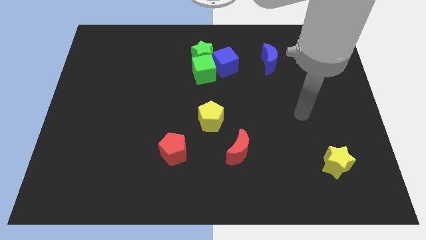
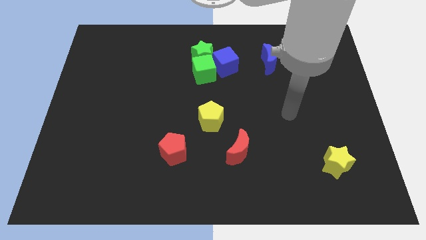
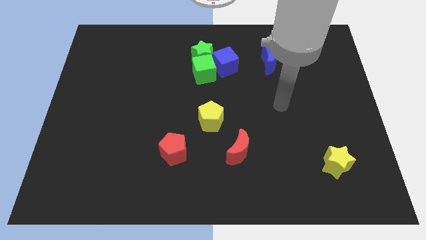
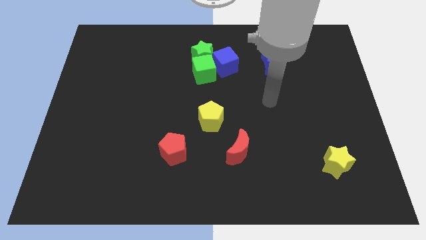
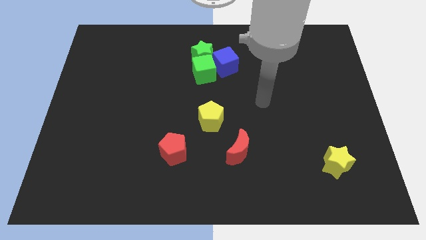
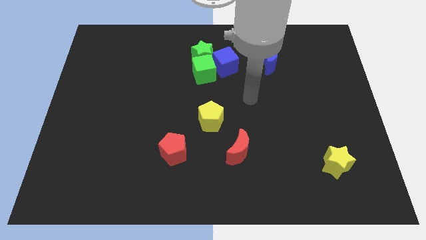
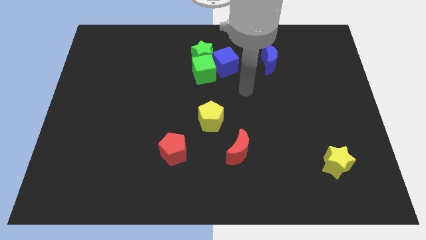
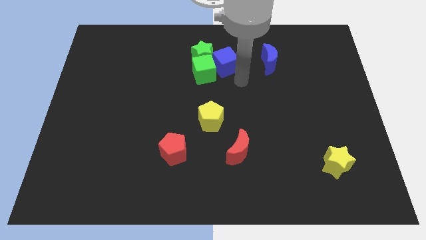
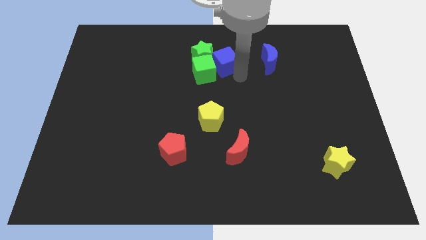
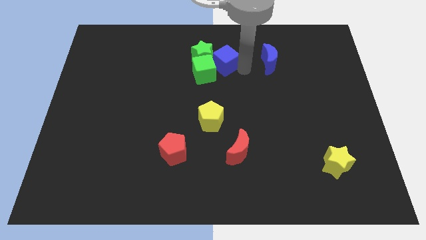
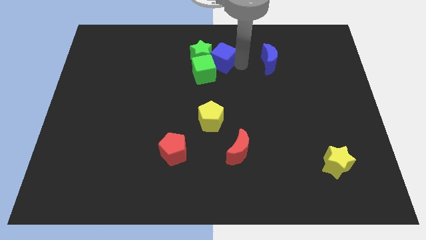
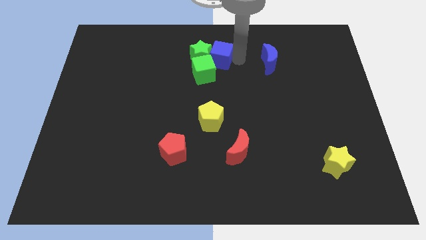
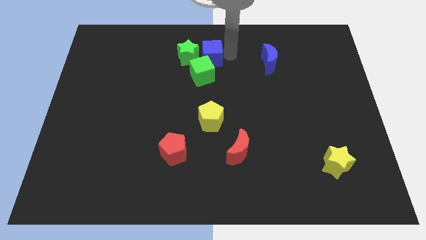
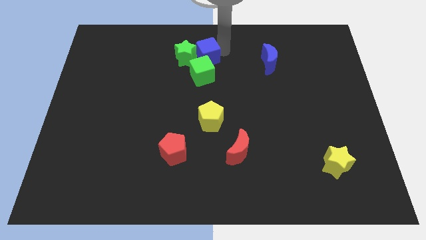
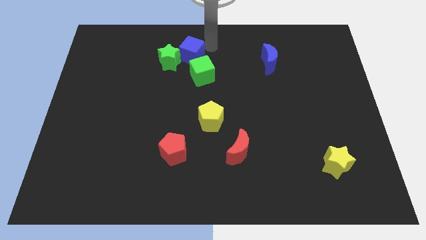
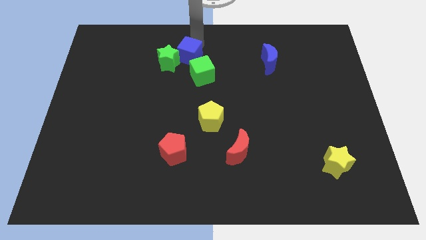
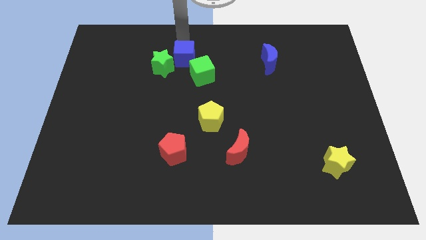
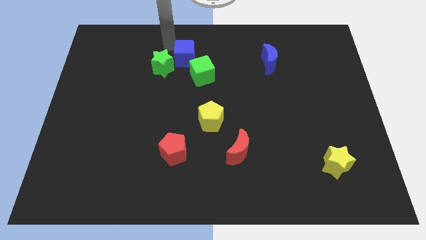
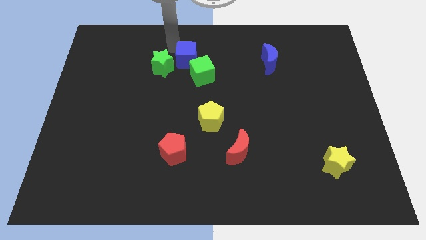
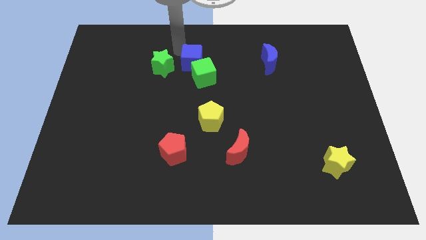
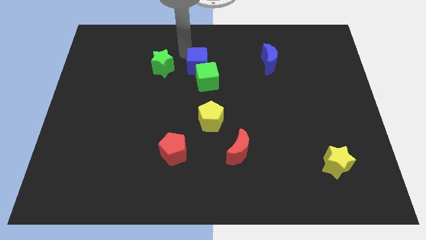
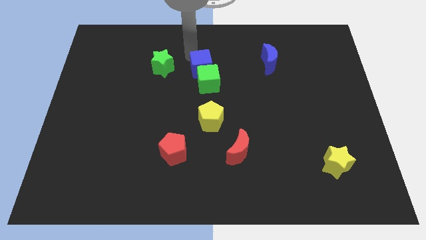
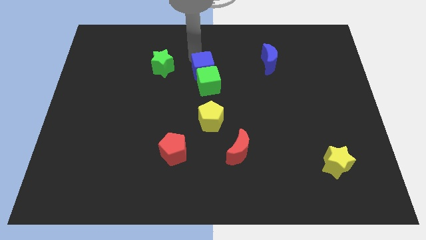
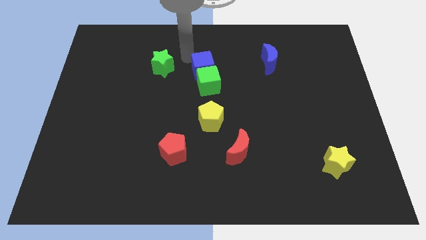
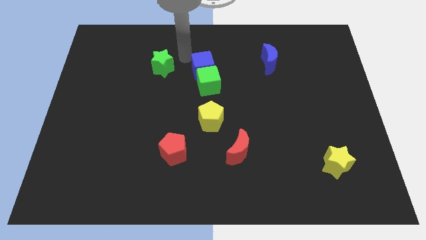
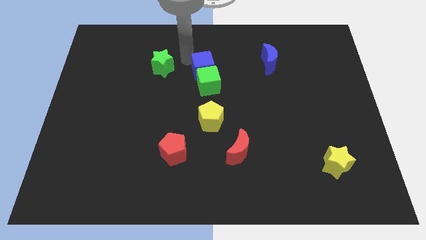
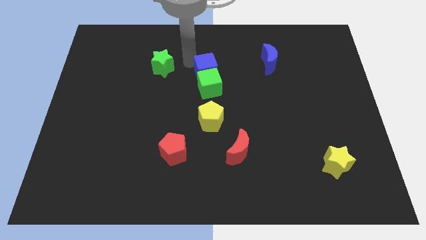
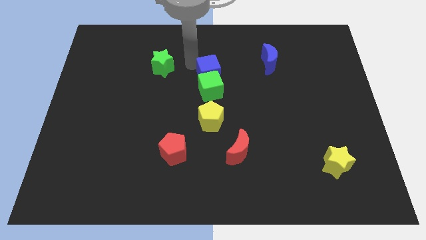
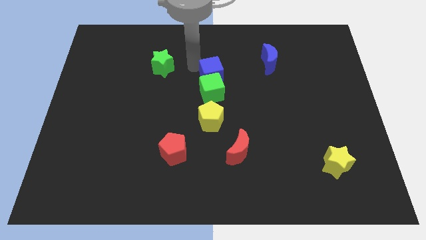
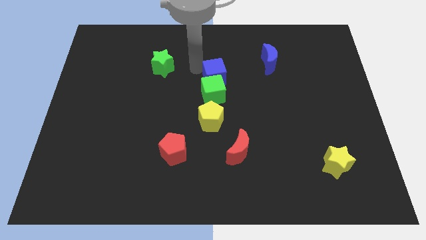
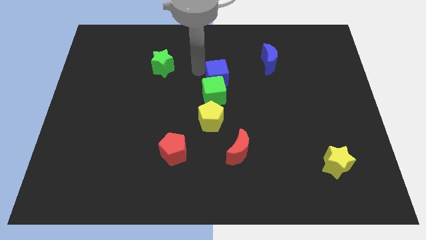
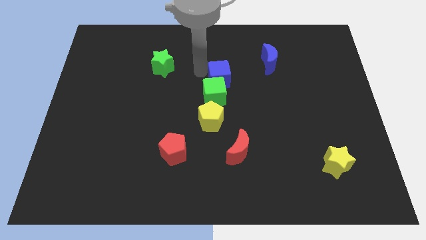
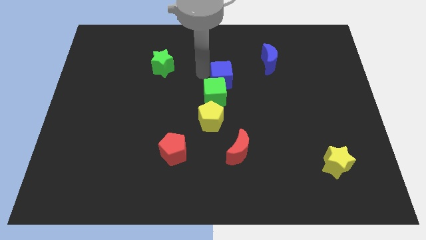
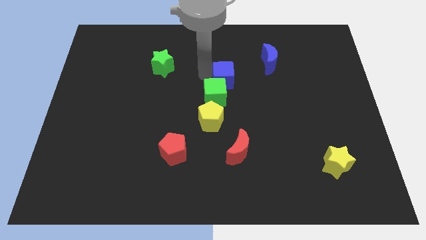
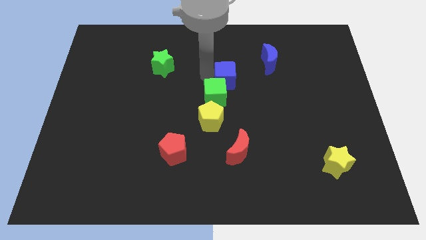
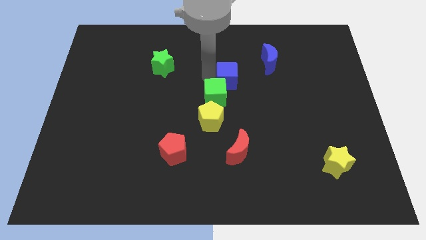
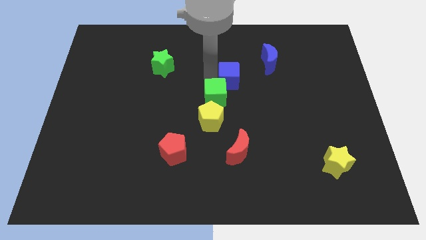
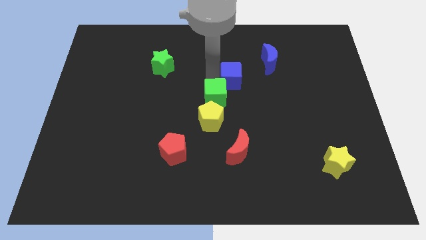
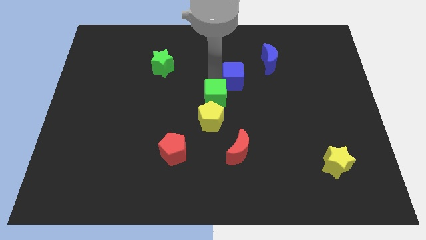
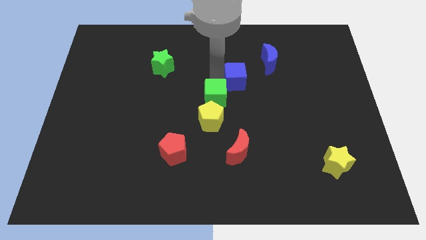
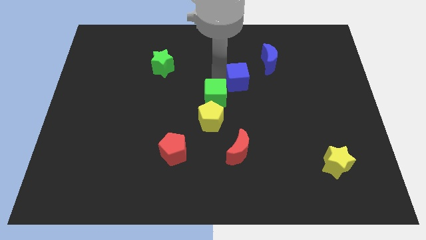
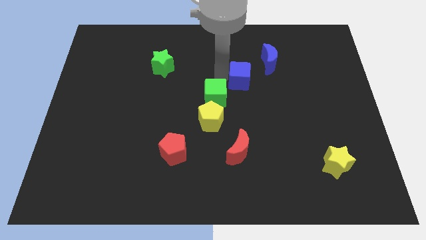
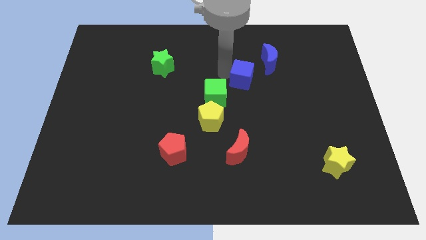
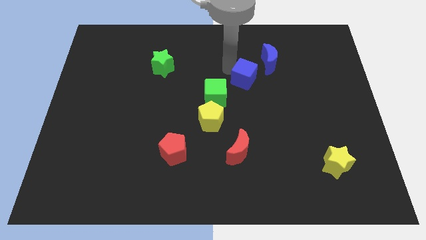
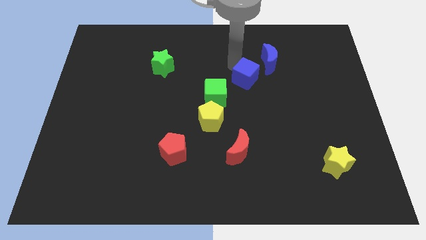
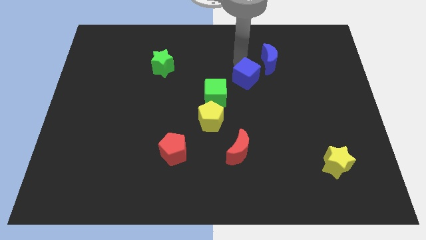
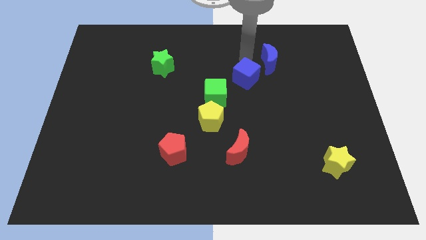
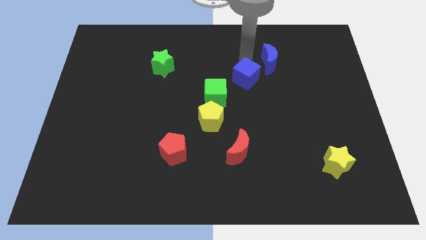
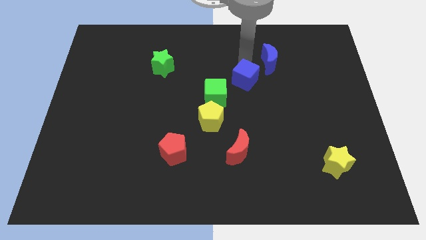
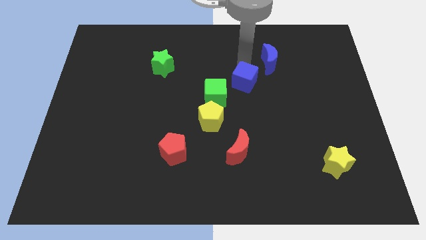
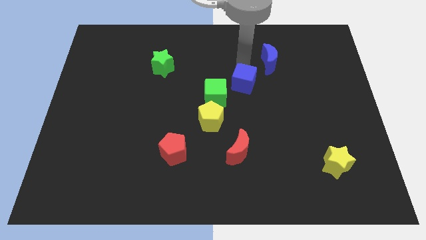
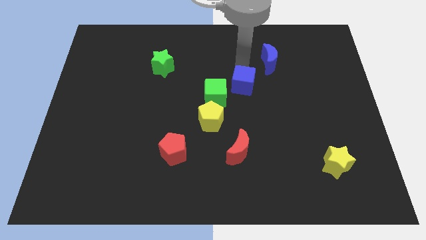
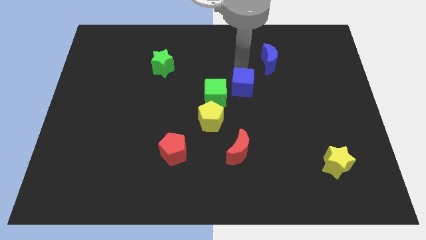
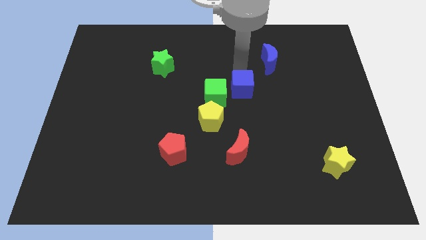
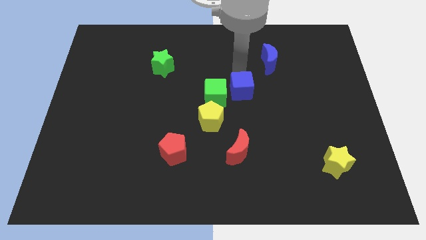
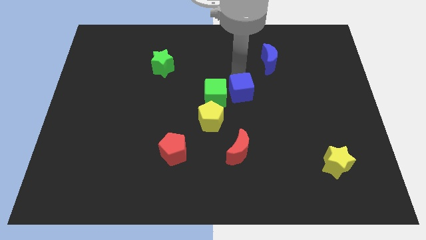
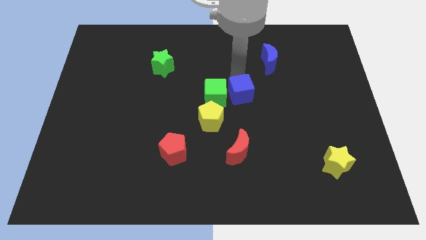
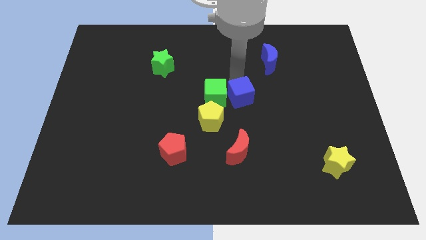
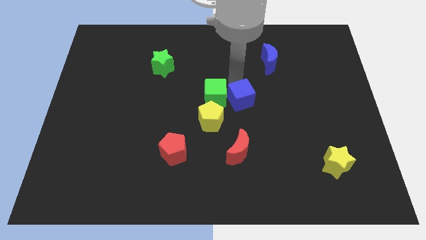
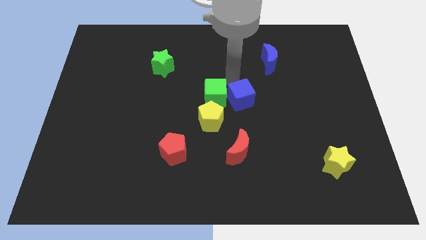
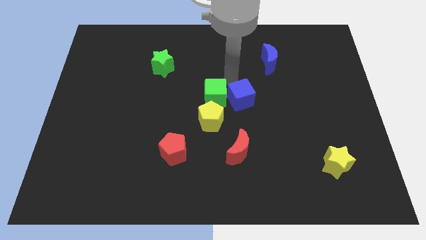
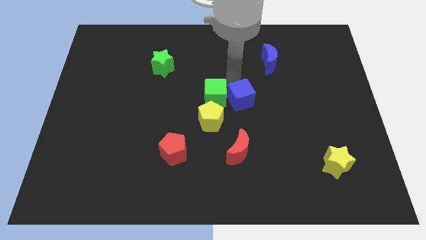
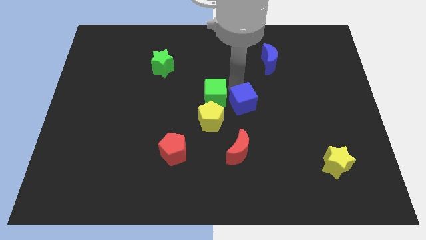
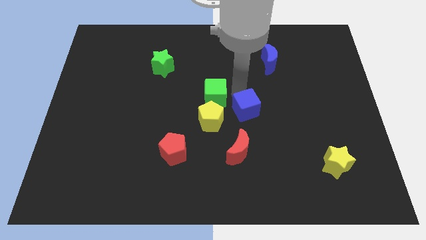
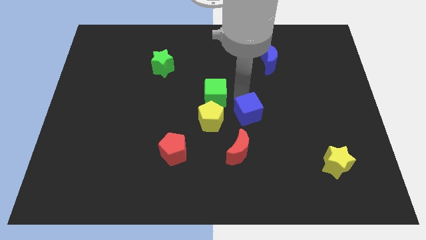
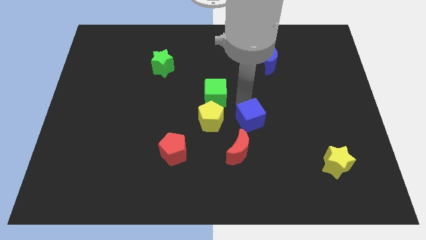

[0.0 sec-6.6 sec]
push the blue cube to the top right side of the red moon

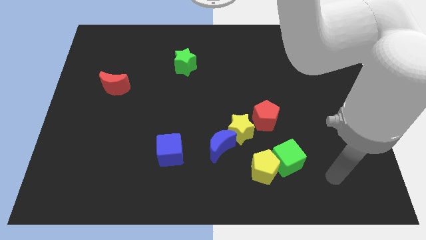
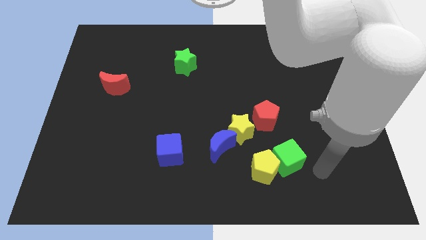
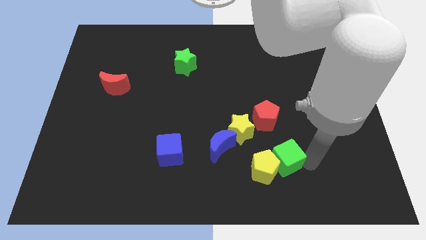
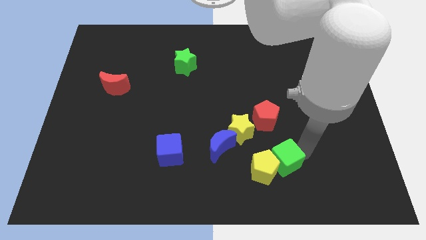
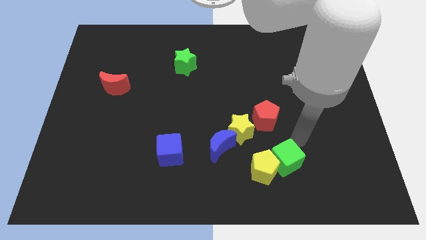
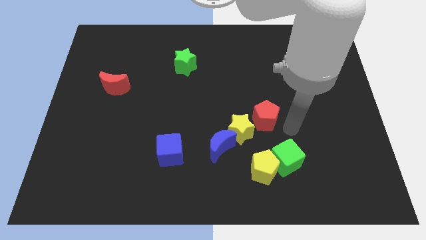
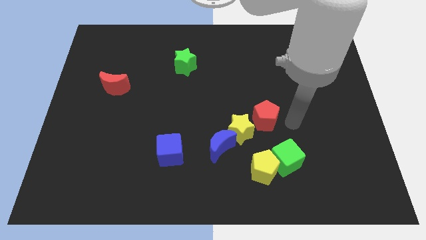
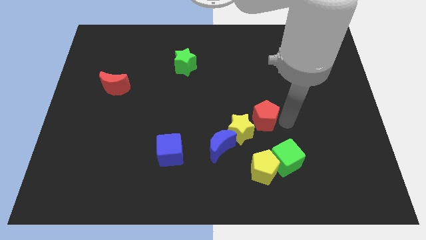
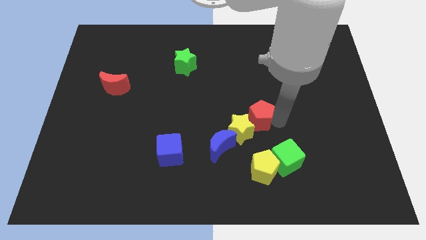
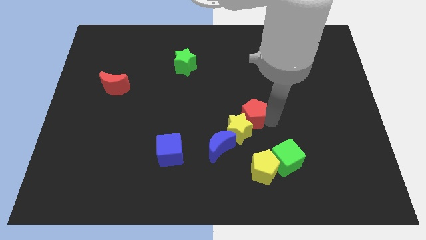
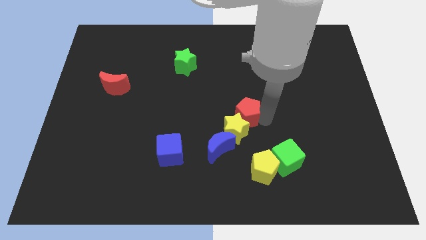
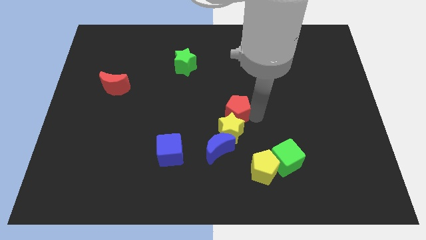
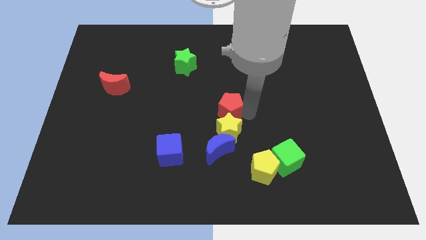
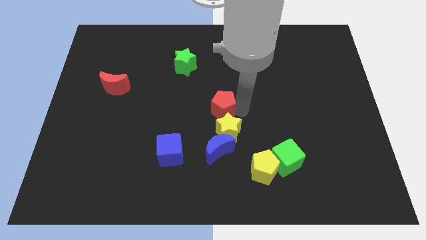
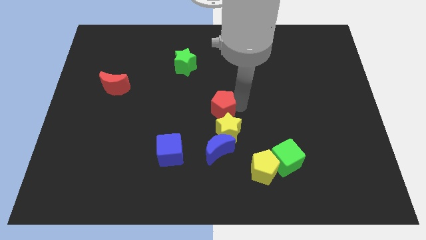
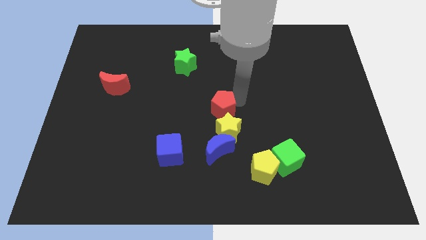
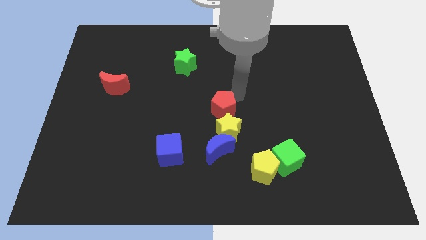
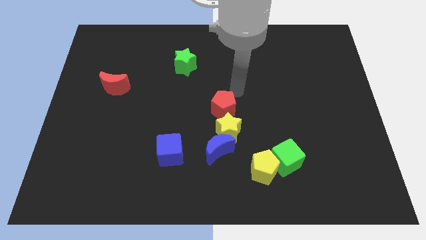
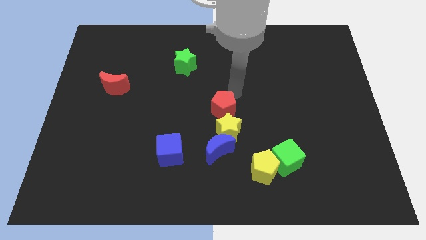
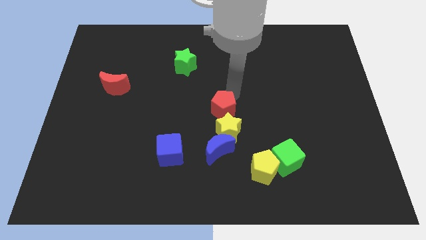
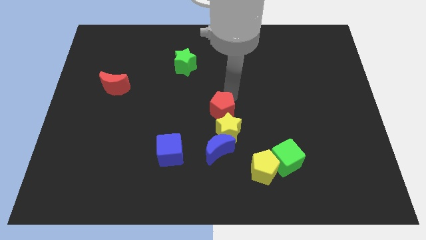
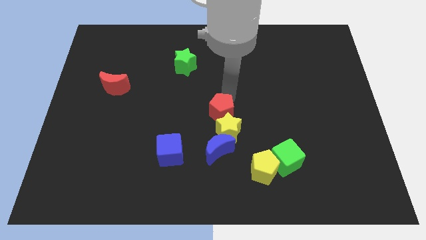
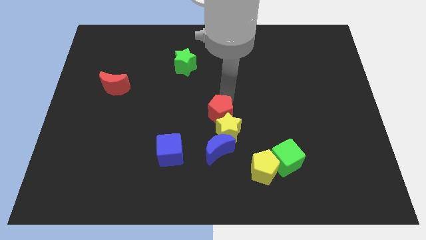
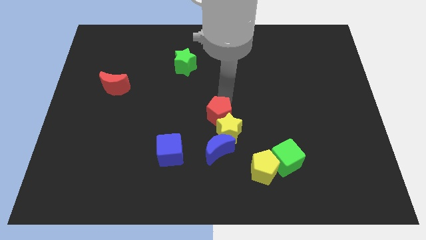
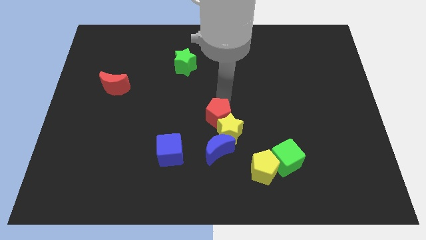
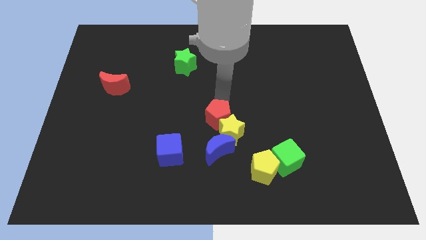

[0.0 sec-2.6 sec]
put the red pentagon to the left of the yellow star
